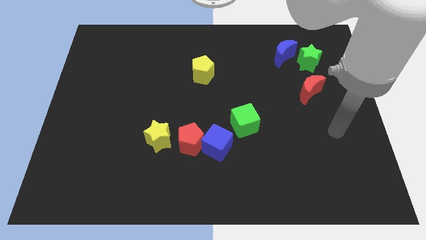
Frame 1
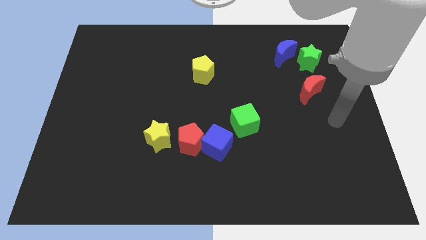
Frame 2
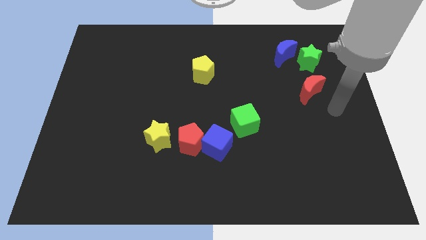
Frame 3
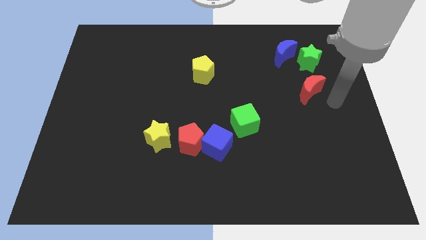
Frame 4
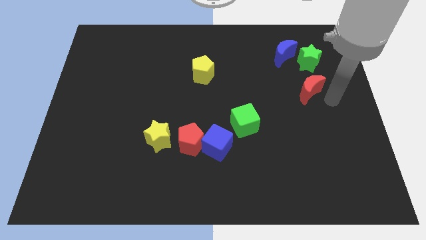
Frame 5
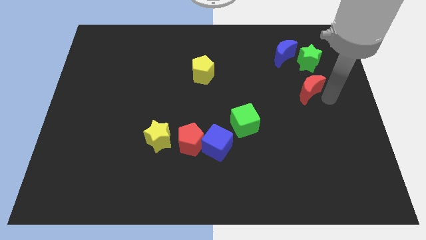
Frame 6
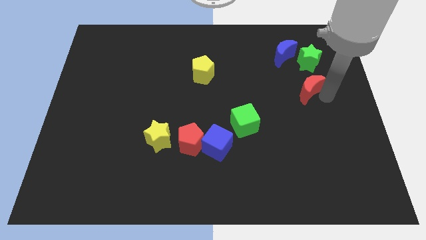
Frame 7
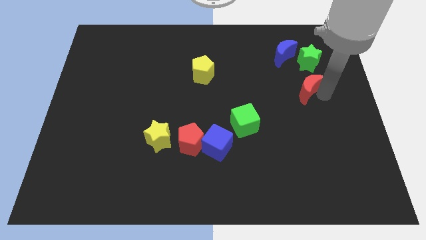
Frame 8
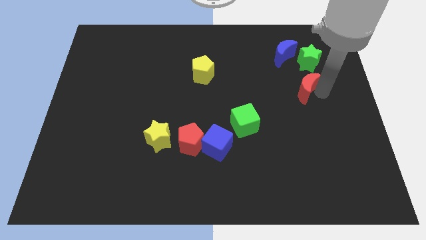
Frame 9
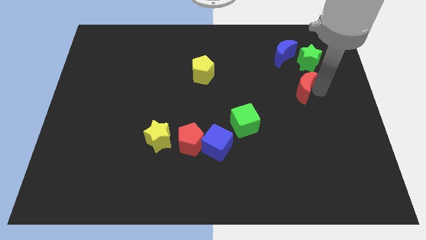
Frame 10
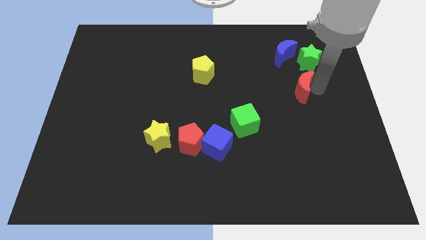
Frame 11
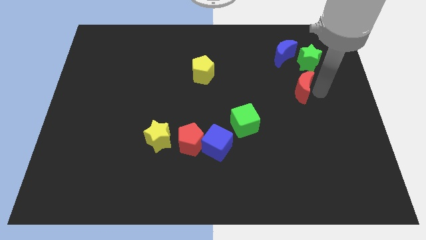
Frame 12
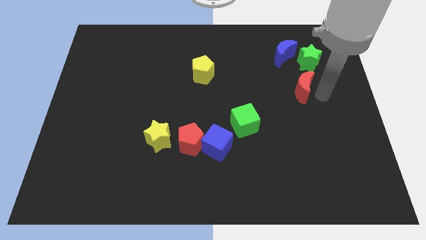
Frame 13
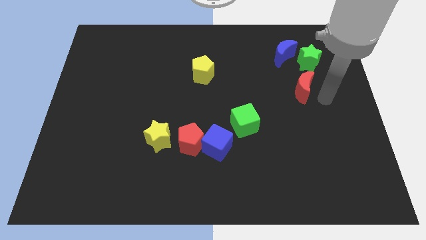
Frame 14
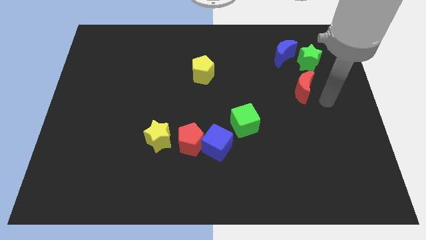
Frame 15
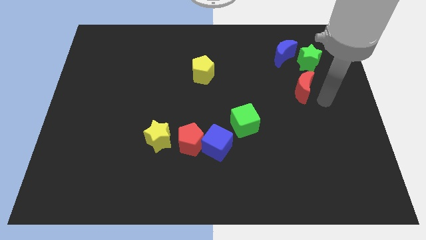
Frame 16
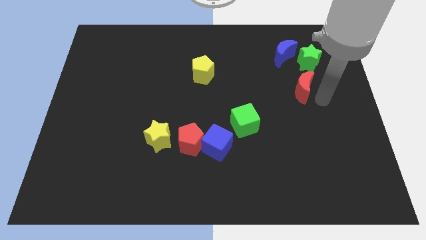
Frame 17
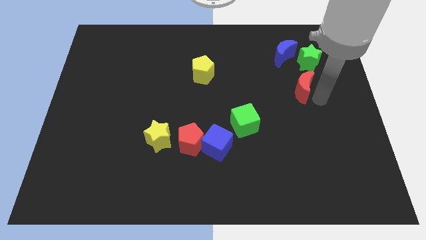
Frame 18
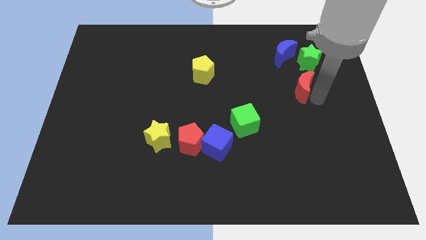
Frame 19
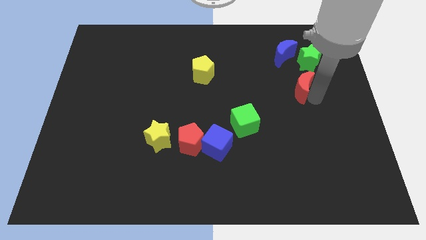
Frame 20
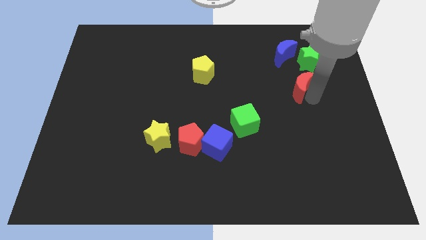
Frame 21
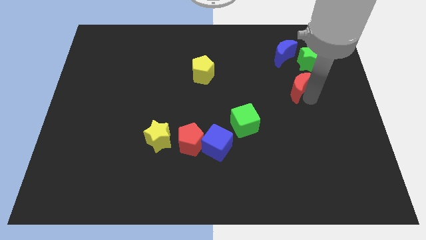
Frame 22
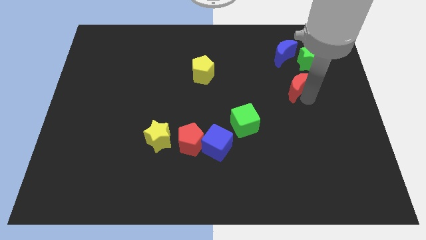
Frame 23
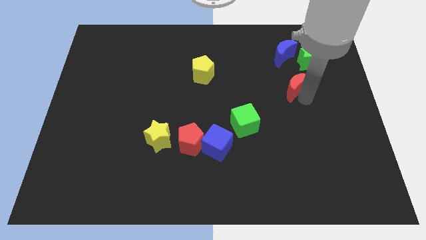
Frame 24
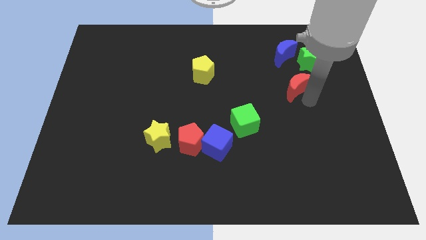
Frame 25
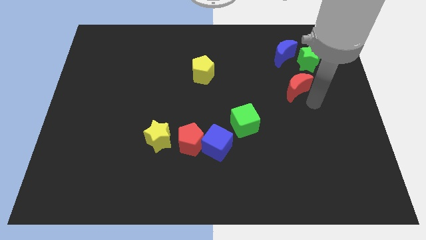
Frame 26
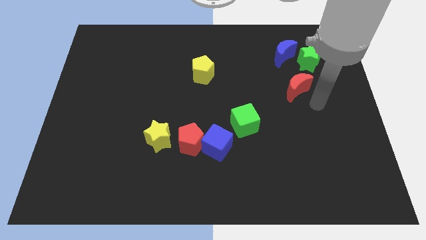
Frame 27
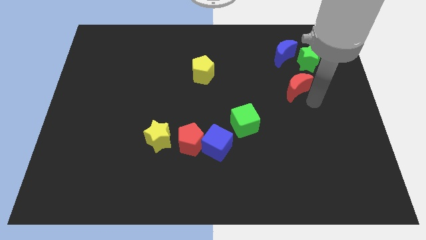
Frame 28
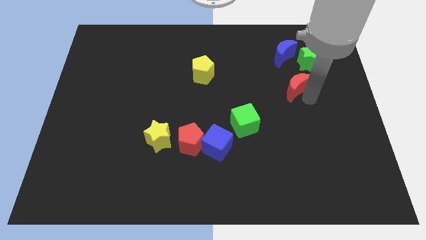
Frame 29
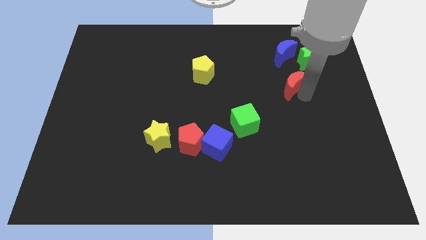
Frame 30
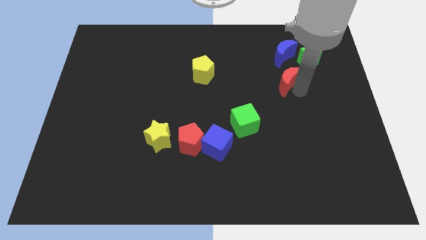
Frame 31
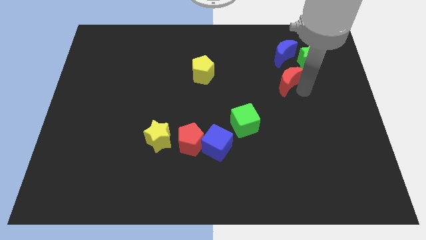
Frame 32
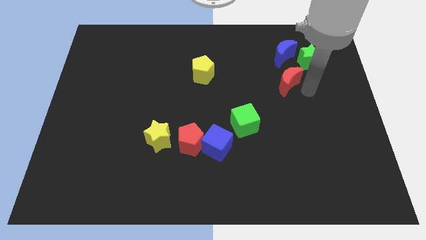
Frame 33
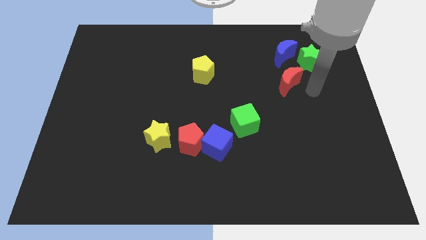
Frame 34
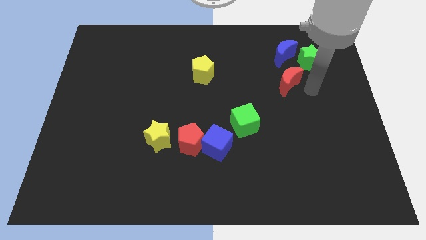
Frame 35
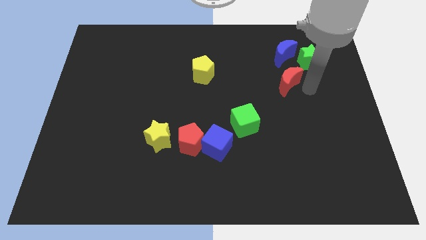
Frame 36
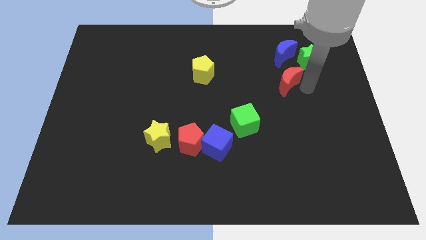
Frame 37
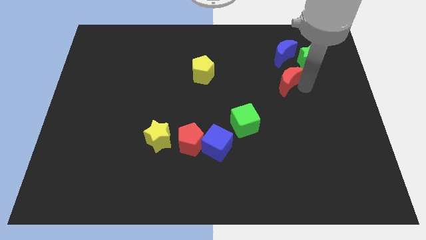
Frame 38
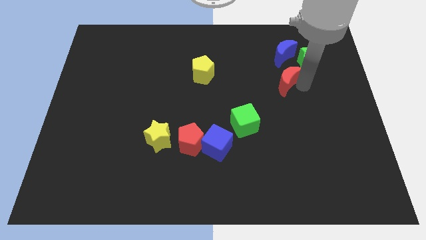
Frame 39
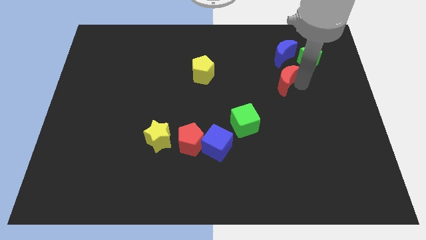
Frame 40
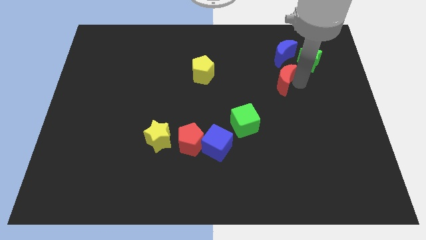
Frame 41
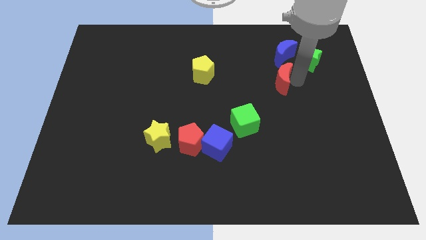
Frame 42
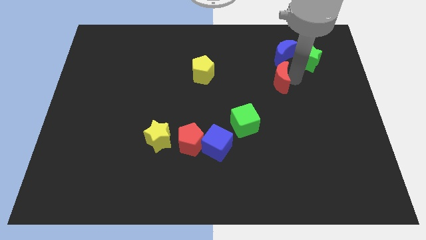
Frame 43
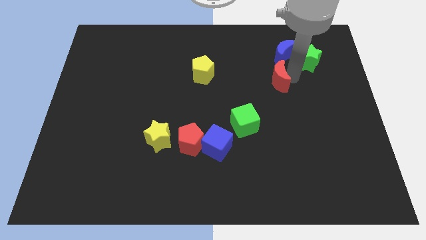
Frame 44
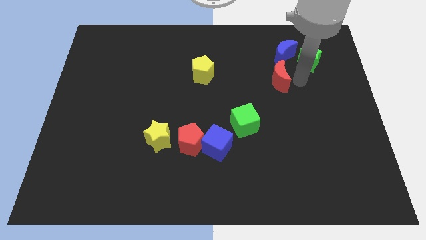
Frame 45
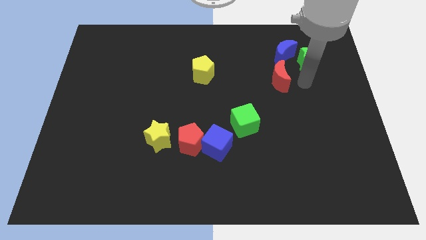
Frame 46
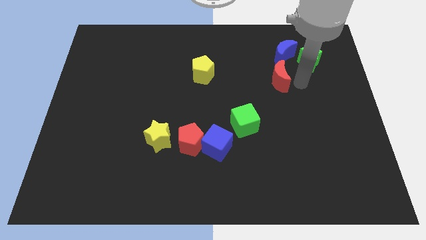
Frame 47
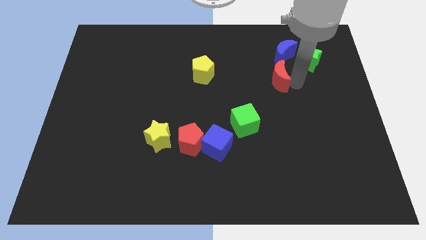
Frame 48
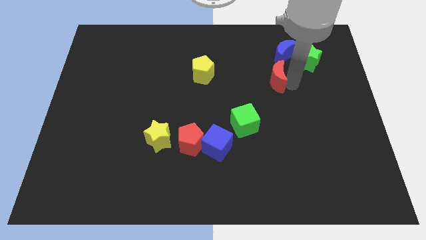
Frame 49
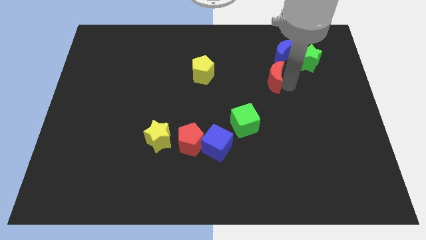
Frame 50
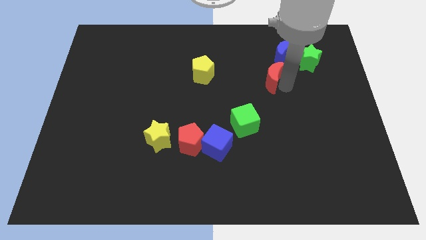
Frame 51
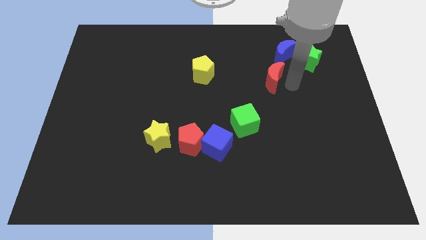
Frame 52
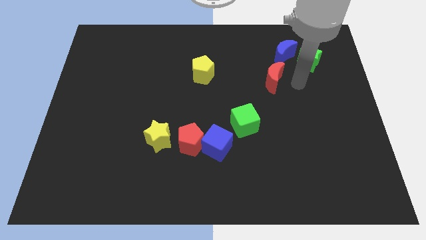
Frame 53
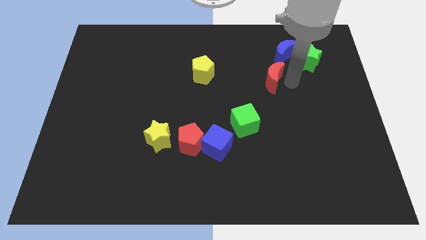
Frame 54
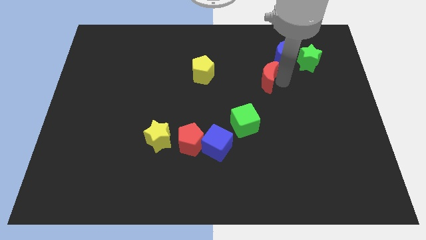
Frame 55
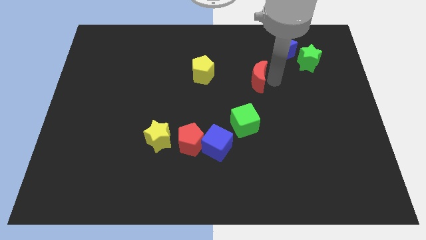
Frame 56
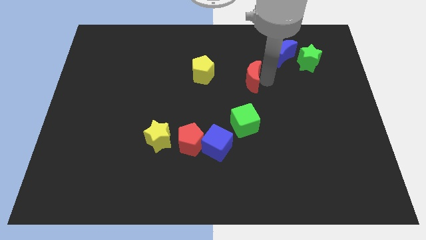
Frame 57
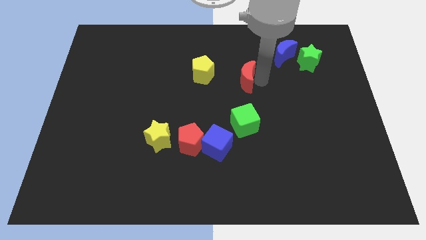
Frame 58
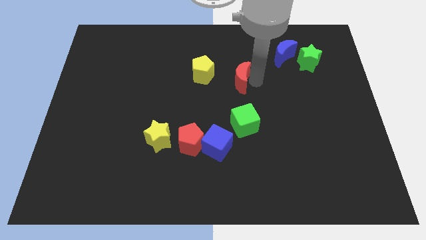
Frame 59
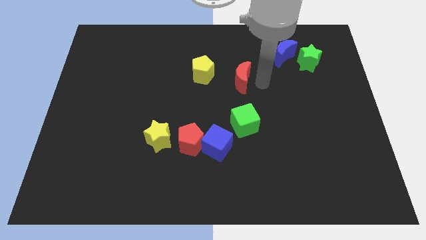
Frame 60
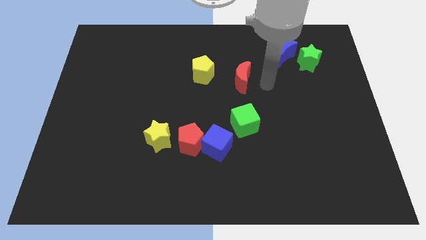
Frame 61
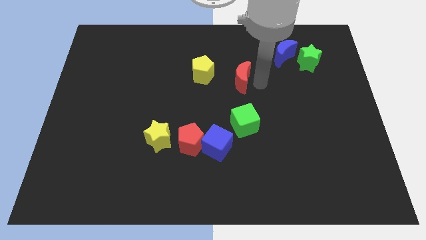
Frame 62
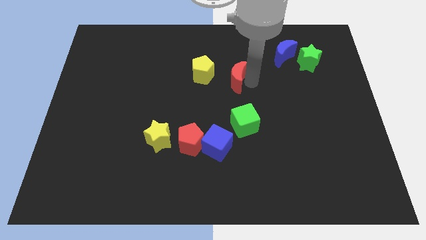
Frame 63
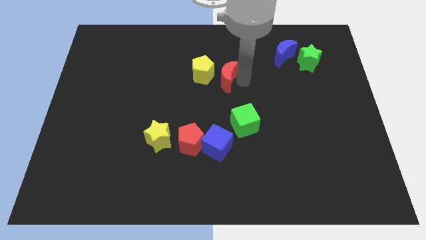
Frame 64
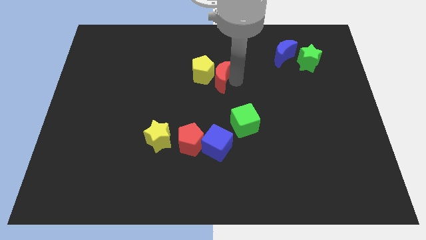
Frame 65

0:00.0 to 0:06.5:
push the red moon next to the yellow pentagon
